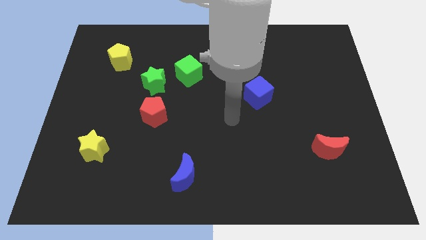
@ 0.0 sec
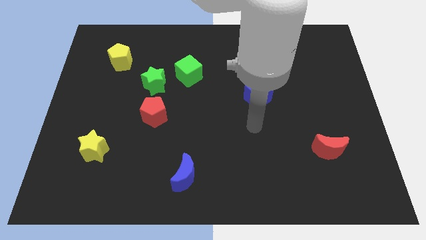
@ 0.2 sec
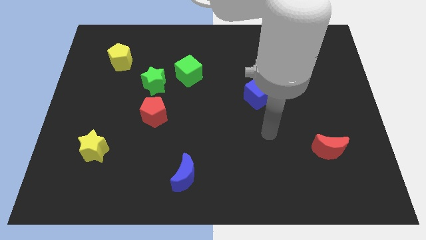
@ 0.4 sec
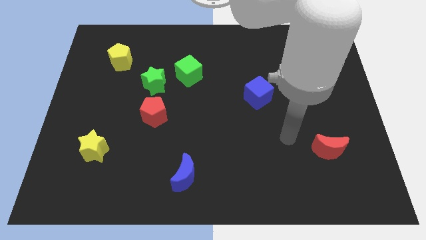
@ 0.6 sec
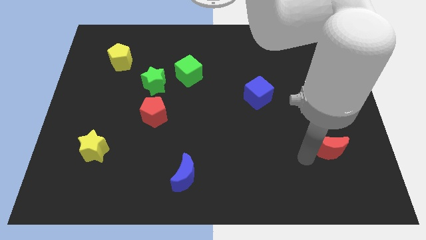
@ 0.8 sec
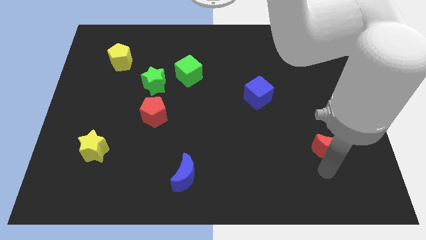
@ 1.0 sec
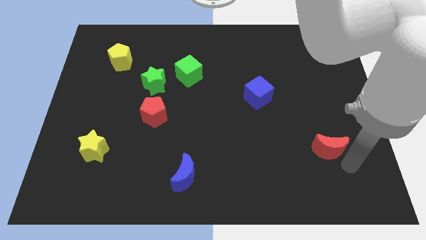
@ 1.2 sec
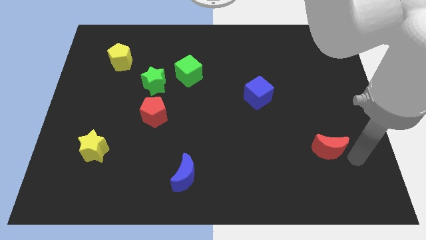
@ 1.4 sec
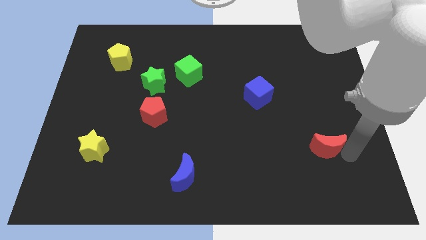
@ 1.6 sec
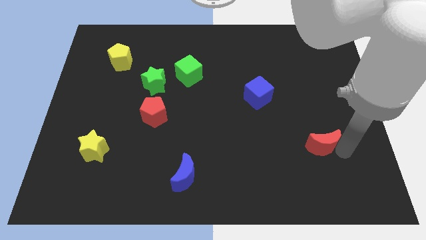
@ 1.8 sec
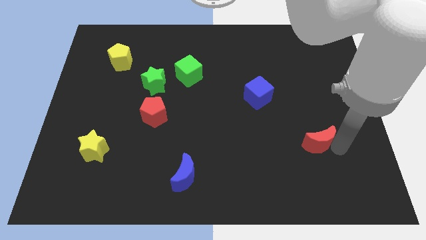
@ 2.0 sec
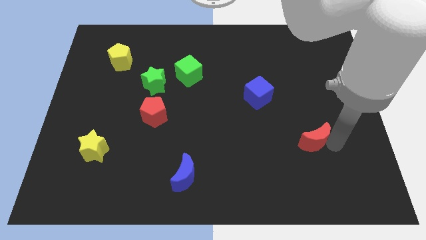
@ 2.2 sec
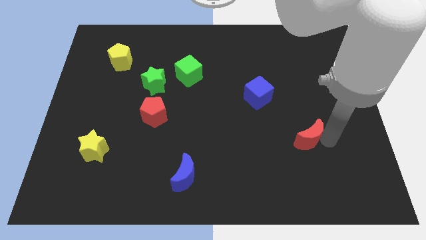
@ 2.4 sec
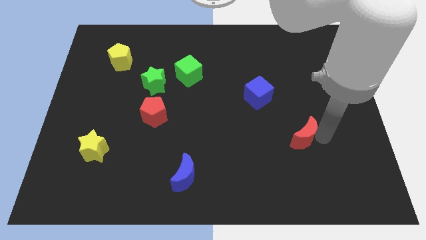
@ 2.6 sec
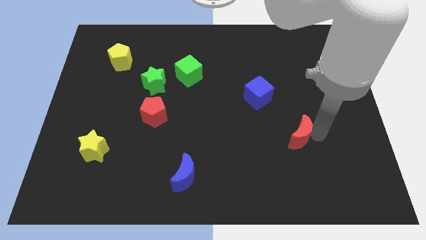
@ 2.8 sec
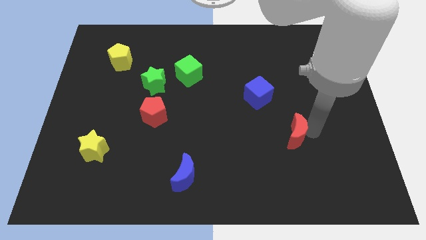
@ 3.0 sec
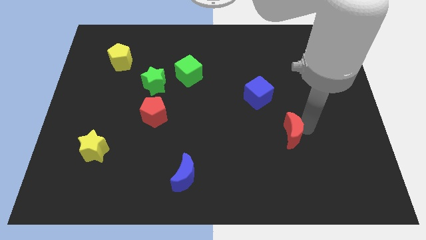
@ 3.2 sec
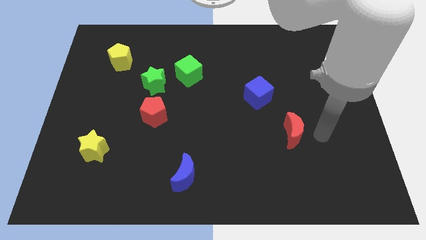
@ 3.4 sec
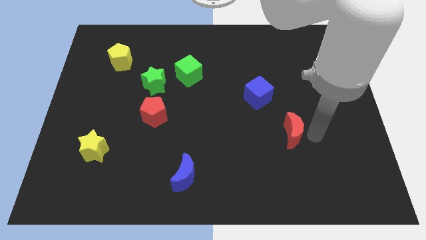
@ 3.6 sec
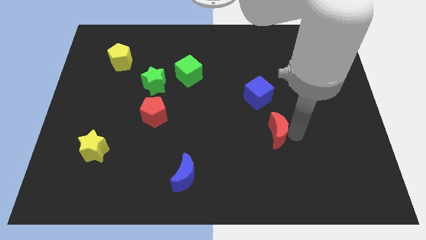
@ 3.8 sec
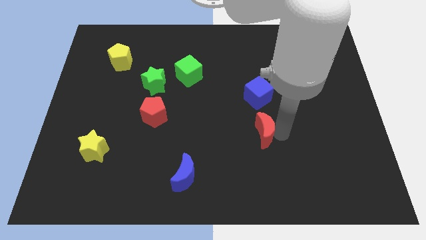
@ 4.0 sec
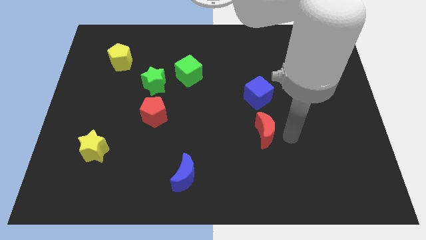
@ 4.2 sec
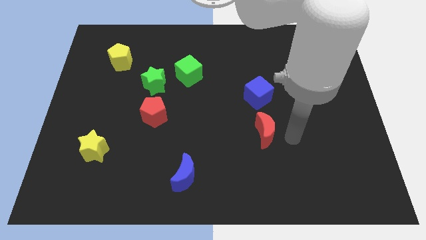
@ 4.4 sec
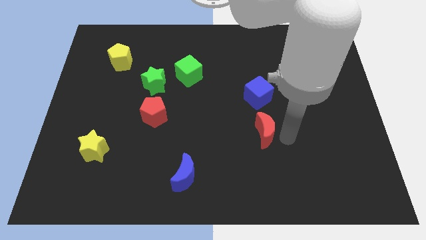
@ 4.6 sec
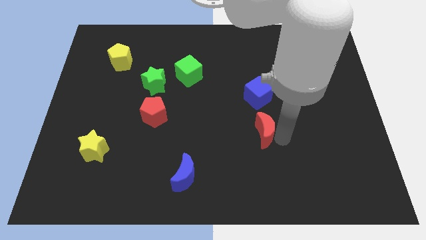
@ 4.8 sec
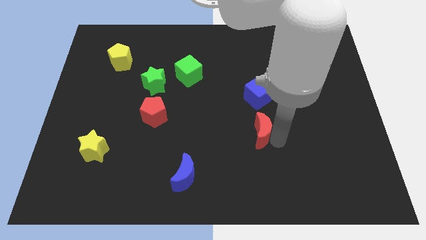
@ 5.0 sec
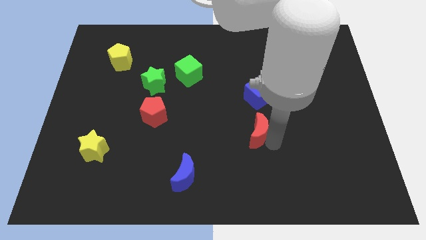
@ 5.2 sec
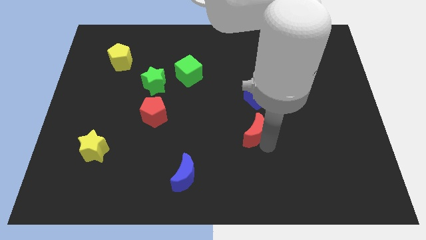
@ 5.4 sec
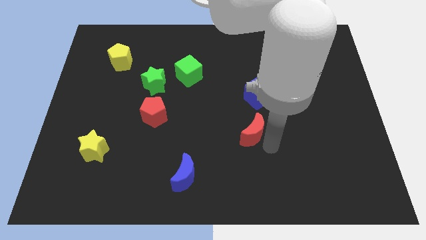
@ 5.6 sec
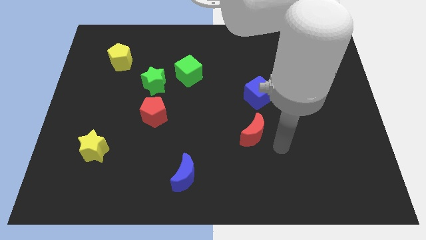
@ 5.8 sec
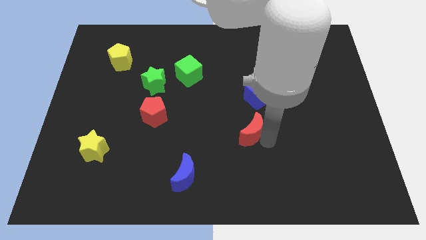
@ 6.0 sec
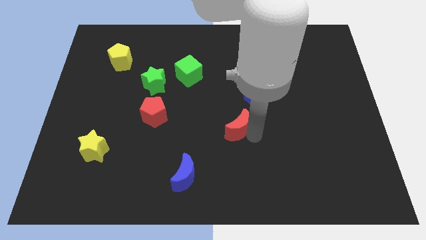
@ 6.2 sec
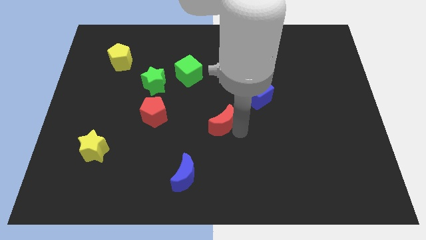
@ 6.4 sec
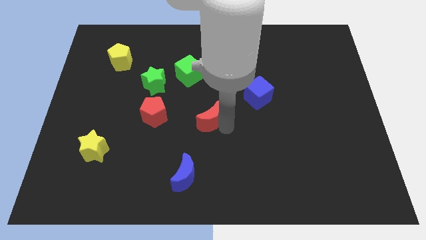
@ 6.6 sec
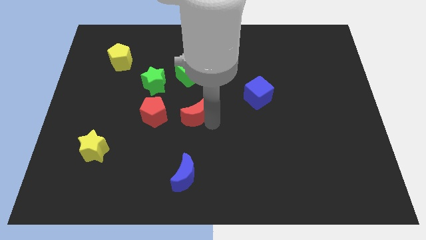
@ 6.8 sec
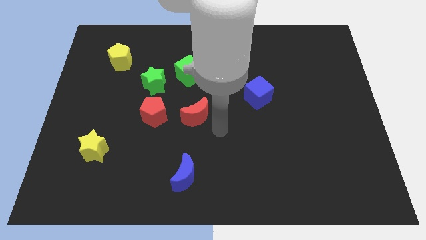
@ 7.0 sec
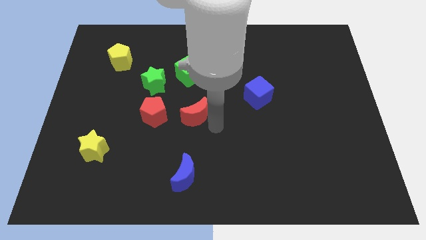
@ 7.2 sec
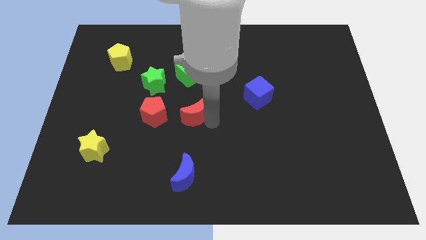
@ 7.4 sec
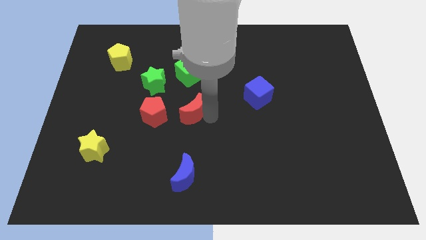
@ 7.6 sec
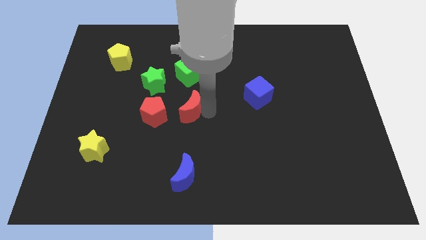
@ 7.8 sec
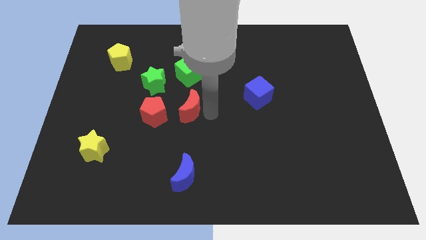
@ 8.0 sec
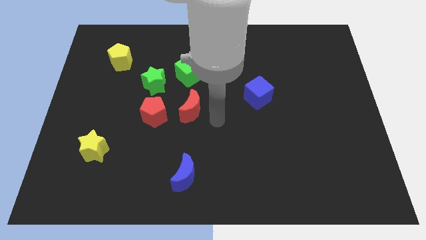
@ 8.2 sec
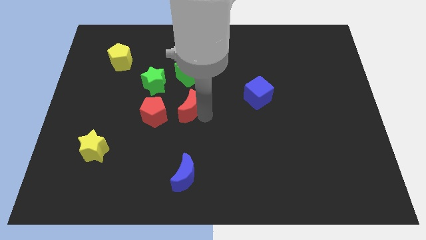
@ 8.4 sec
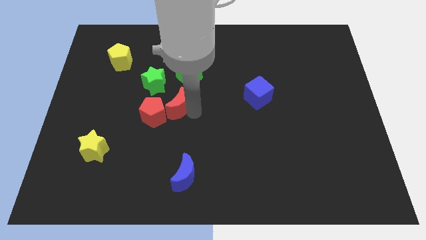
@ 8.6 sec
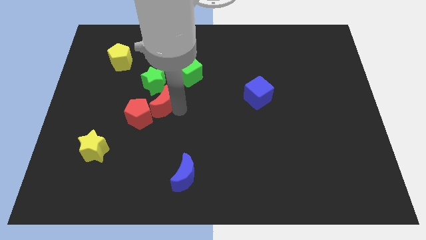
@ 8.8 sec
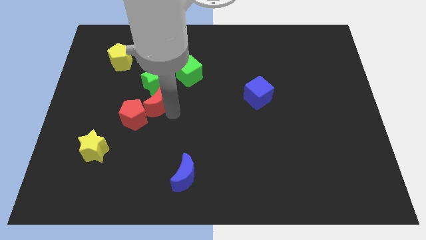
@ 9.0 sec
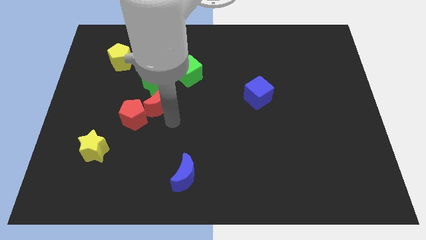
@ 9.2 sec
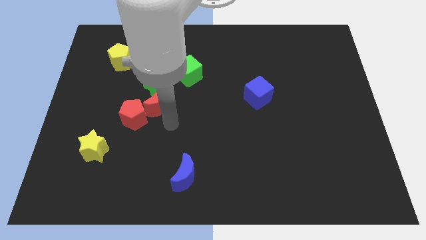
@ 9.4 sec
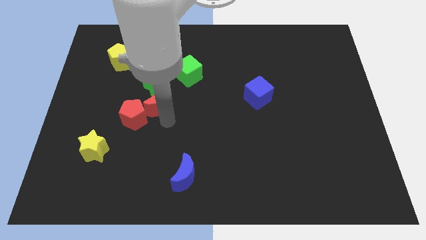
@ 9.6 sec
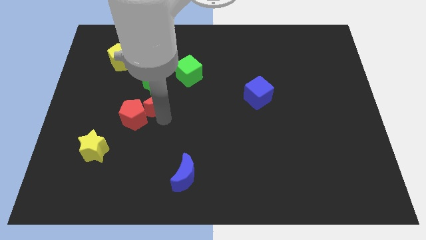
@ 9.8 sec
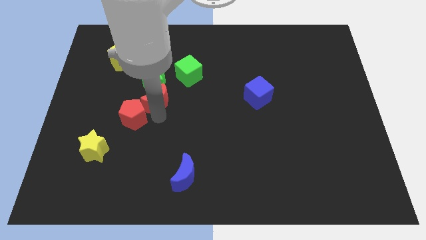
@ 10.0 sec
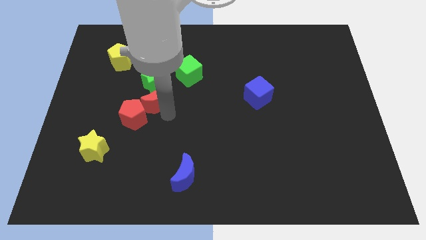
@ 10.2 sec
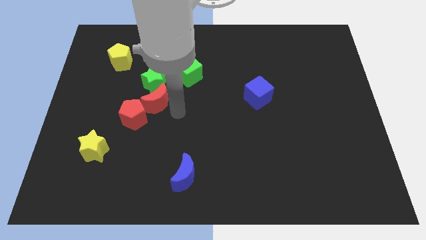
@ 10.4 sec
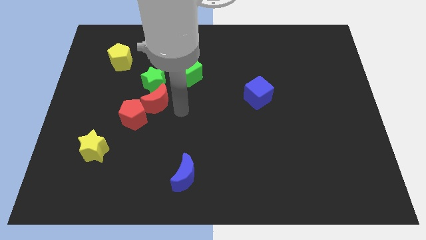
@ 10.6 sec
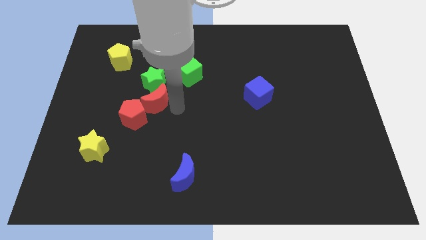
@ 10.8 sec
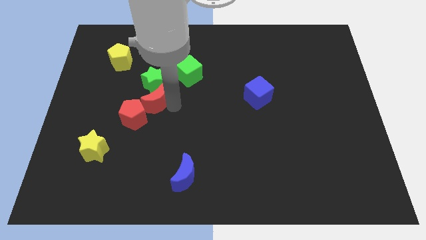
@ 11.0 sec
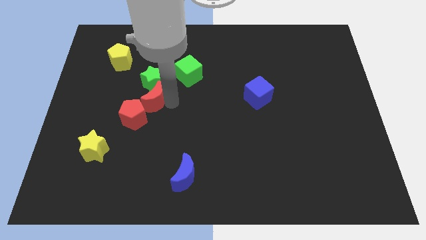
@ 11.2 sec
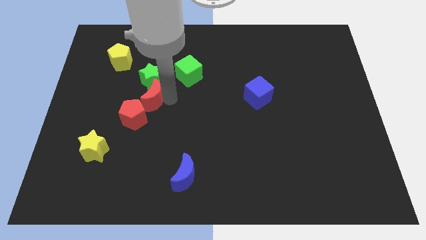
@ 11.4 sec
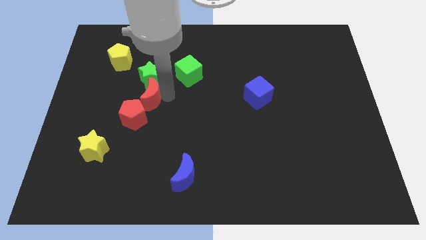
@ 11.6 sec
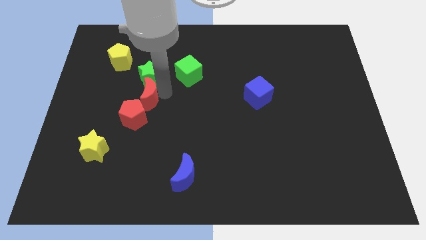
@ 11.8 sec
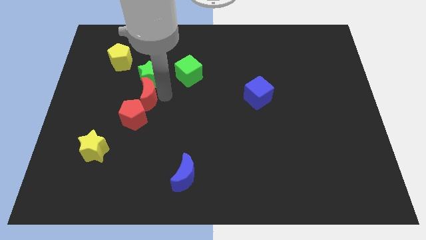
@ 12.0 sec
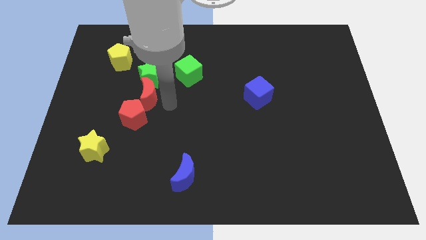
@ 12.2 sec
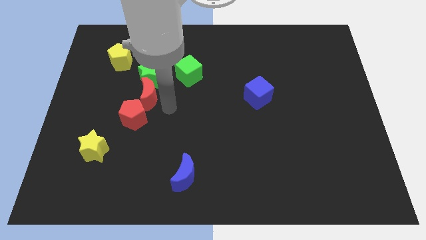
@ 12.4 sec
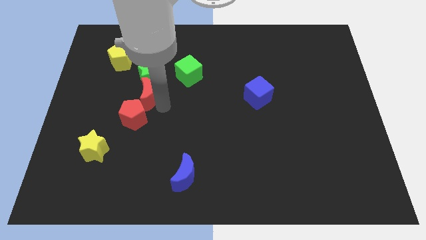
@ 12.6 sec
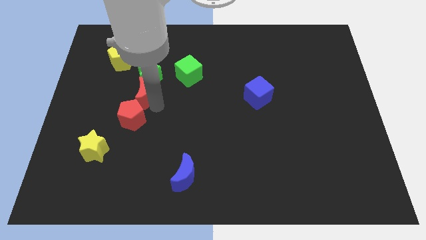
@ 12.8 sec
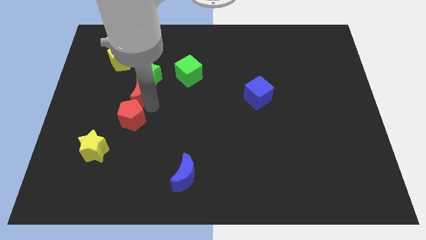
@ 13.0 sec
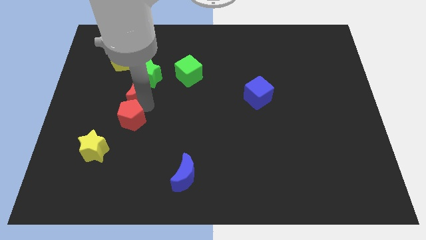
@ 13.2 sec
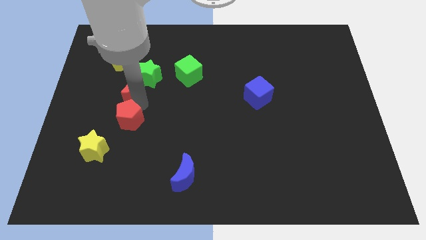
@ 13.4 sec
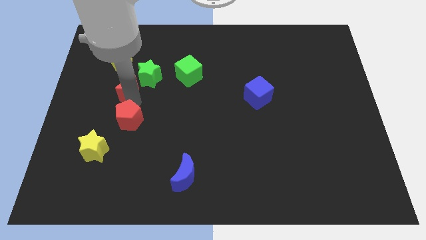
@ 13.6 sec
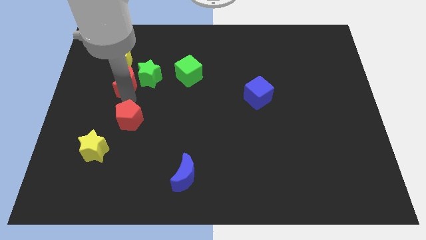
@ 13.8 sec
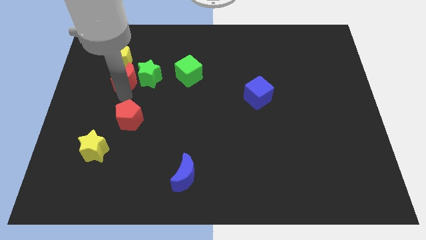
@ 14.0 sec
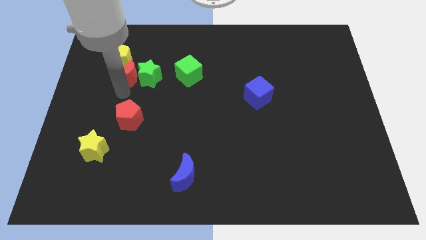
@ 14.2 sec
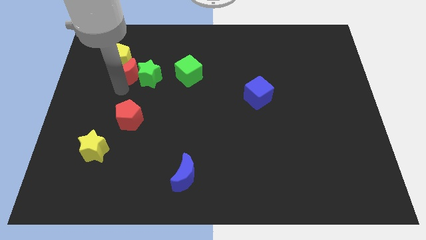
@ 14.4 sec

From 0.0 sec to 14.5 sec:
push the red moon to the yellow pentagon
